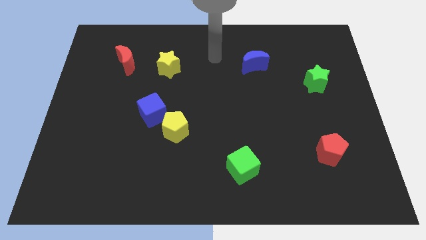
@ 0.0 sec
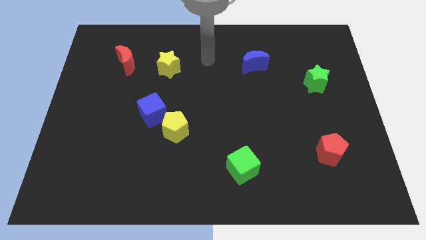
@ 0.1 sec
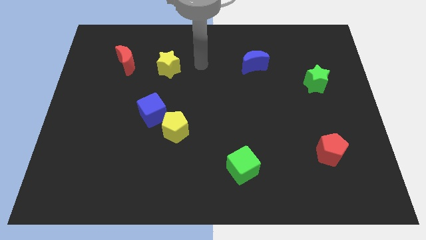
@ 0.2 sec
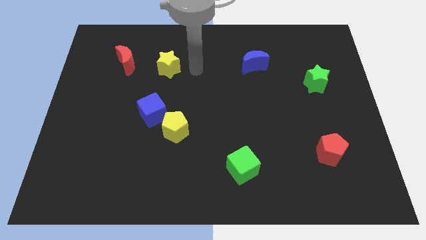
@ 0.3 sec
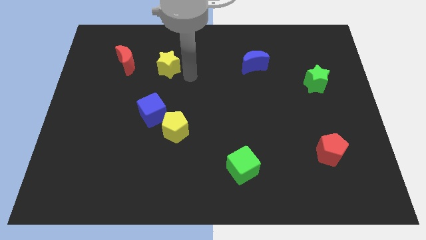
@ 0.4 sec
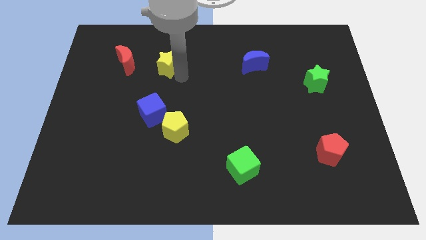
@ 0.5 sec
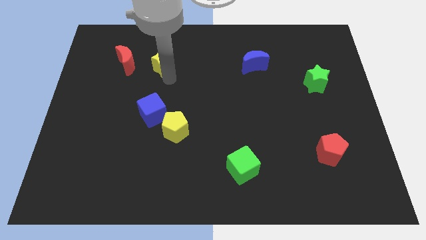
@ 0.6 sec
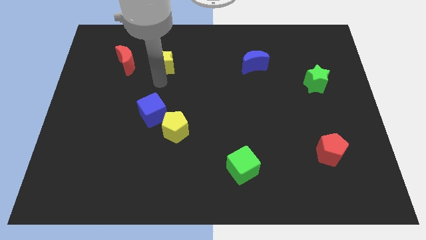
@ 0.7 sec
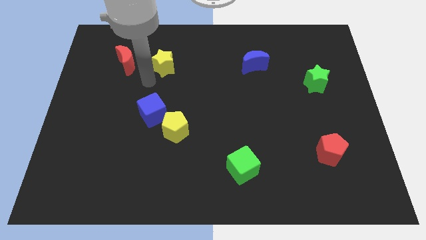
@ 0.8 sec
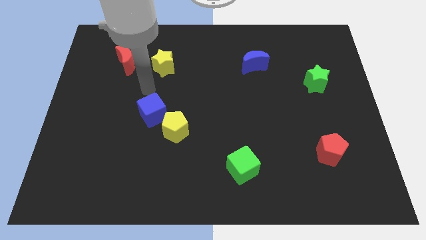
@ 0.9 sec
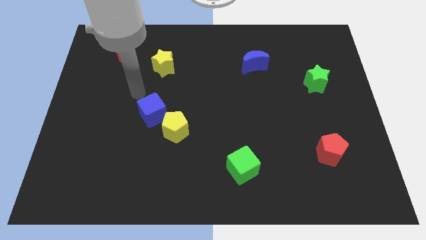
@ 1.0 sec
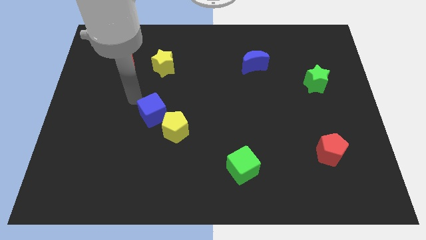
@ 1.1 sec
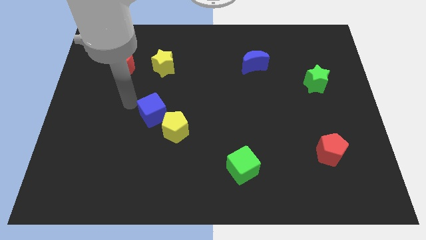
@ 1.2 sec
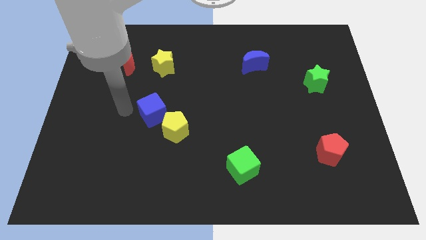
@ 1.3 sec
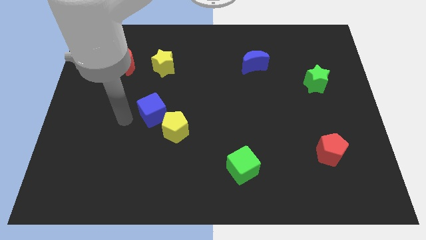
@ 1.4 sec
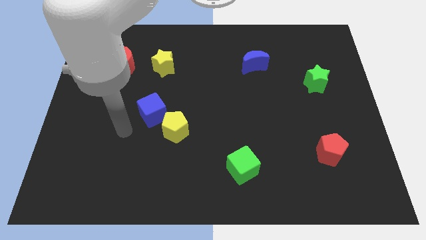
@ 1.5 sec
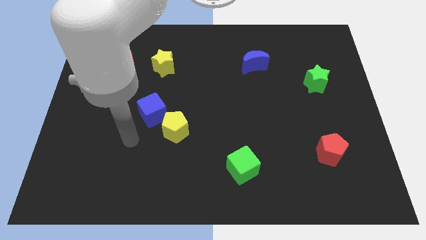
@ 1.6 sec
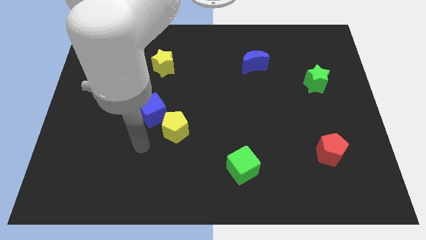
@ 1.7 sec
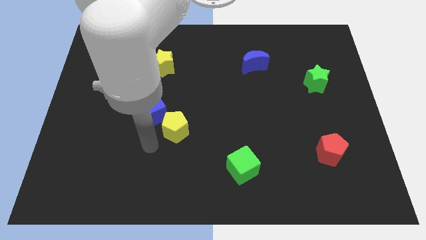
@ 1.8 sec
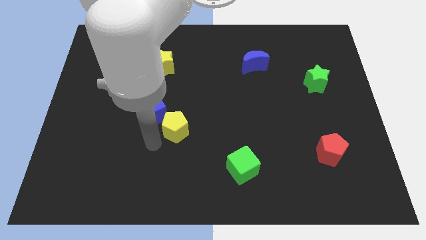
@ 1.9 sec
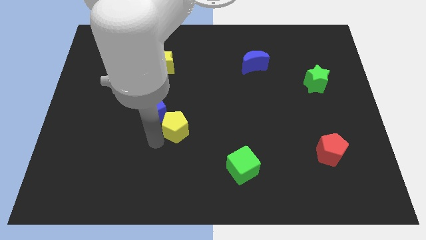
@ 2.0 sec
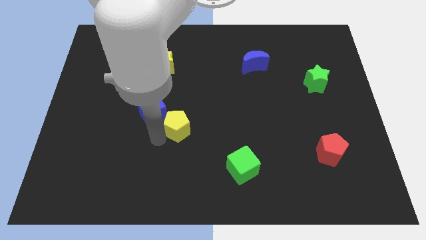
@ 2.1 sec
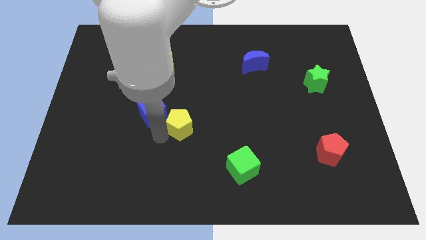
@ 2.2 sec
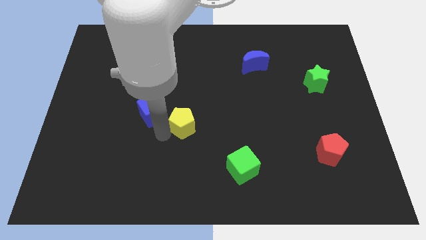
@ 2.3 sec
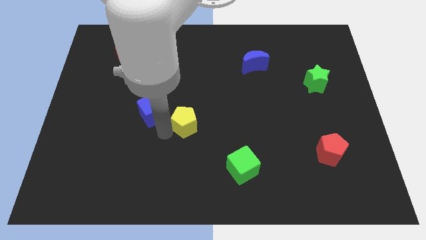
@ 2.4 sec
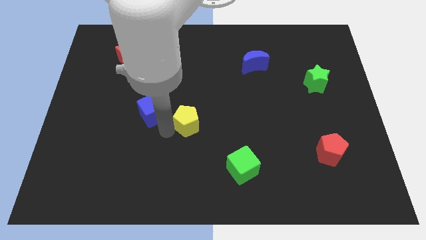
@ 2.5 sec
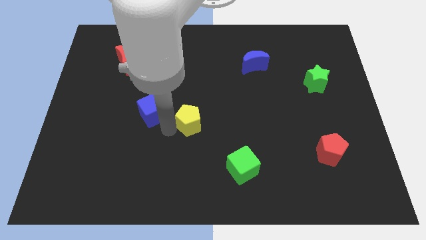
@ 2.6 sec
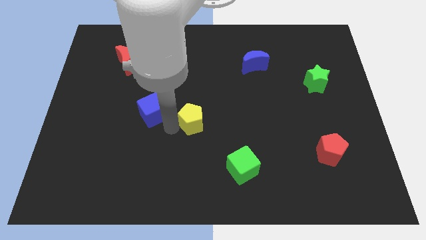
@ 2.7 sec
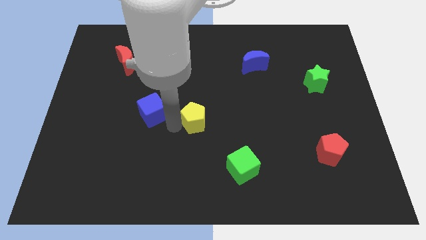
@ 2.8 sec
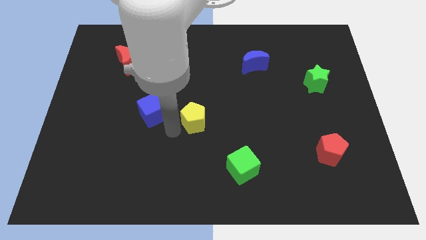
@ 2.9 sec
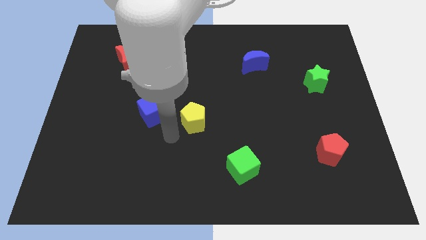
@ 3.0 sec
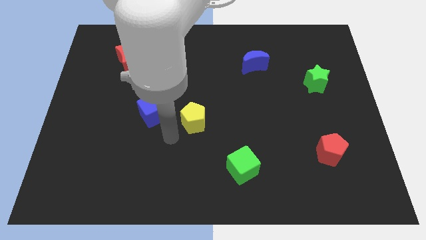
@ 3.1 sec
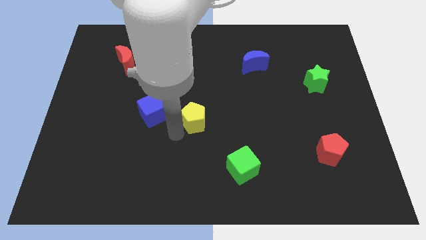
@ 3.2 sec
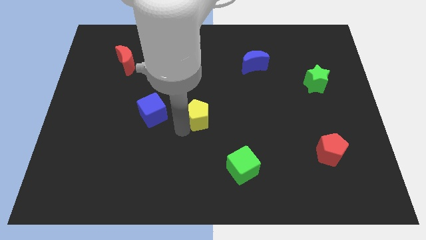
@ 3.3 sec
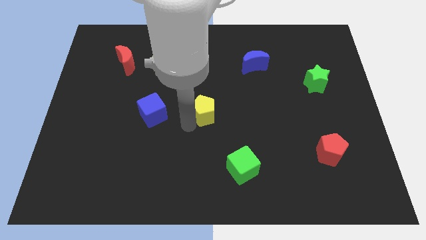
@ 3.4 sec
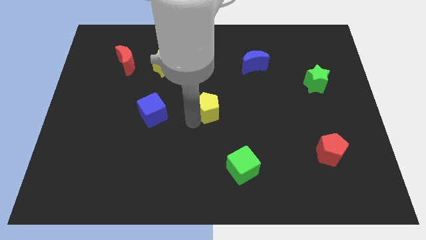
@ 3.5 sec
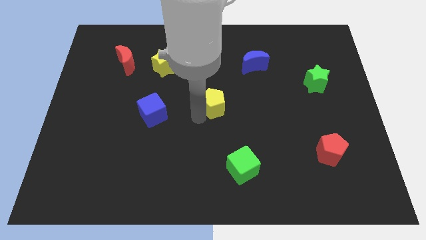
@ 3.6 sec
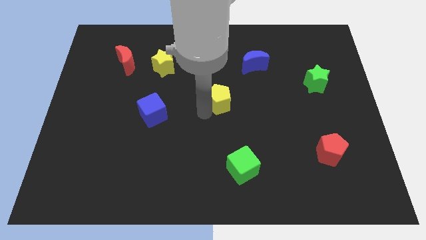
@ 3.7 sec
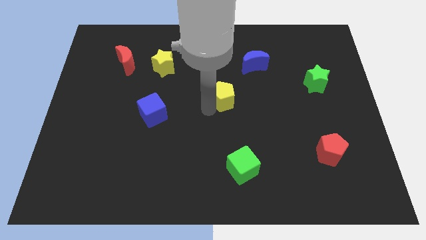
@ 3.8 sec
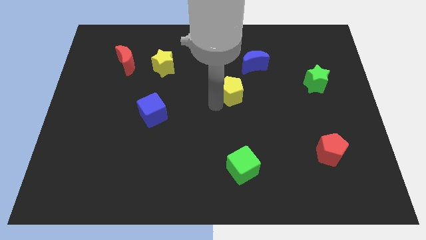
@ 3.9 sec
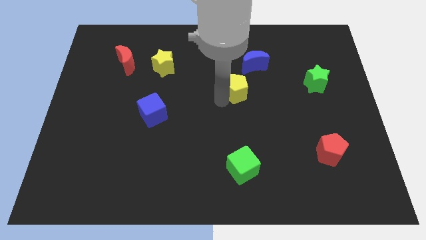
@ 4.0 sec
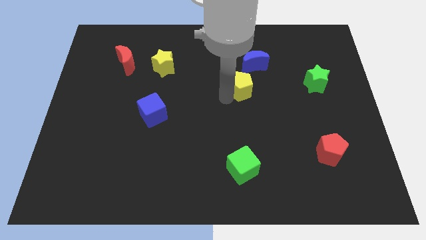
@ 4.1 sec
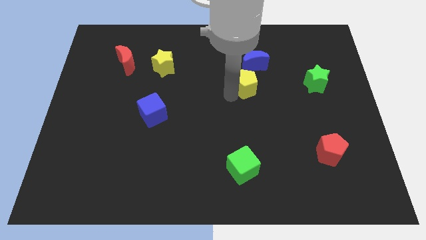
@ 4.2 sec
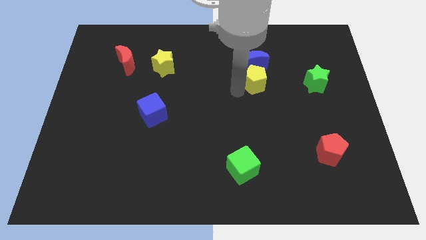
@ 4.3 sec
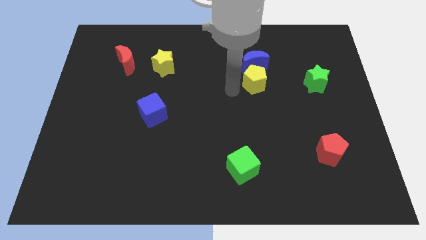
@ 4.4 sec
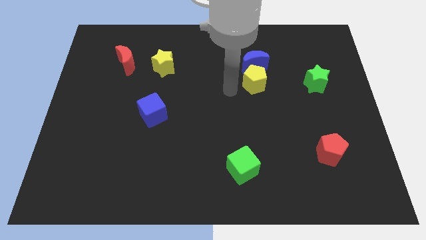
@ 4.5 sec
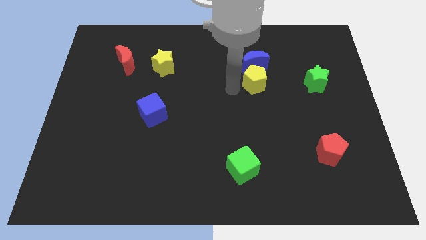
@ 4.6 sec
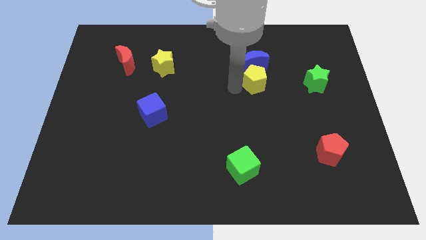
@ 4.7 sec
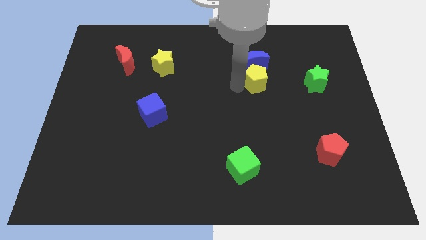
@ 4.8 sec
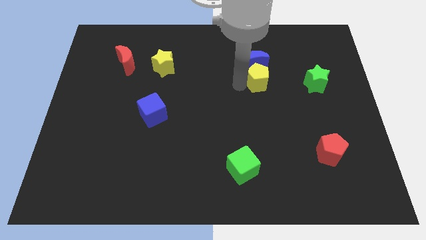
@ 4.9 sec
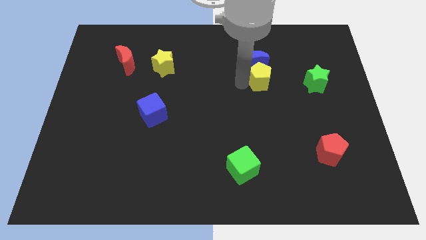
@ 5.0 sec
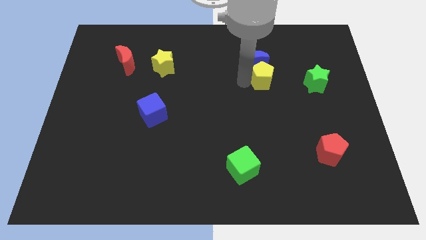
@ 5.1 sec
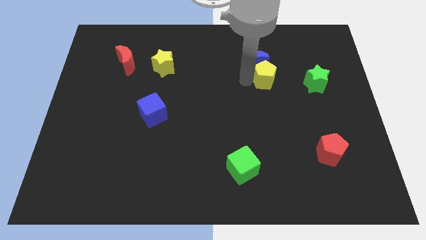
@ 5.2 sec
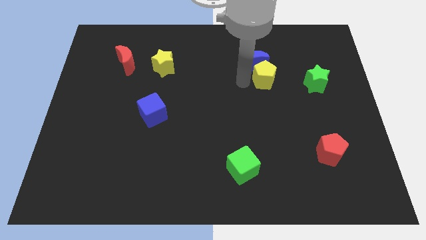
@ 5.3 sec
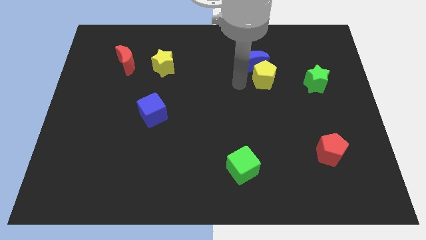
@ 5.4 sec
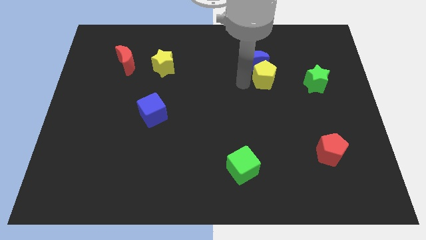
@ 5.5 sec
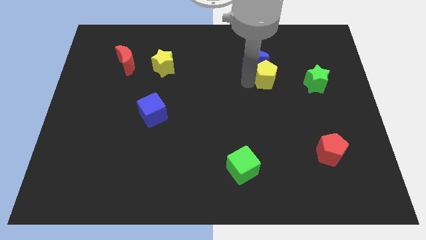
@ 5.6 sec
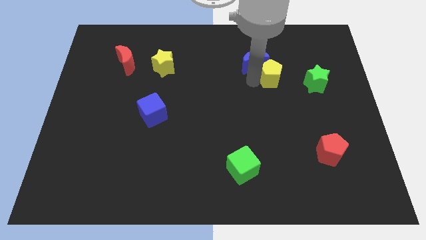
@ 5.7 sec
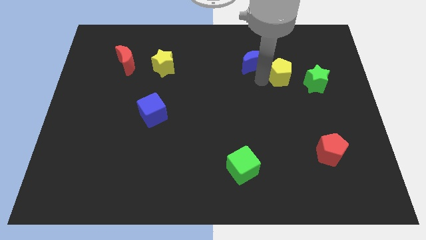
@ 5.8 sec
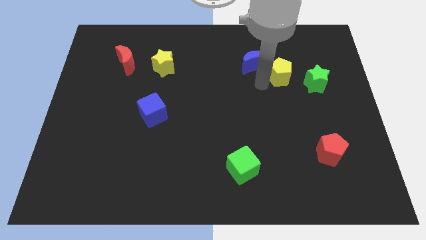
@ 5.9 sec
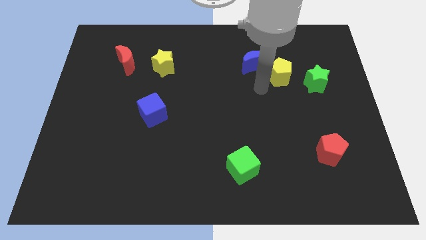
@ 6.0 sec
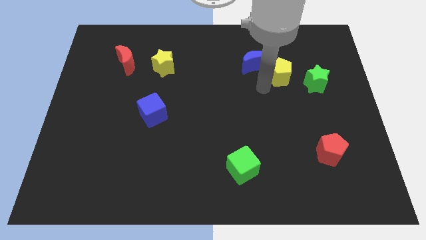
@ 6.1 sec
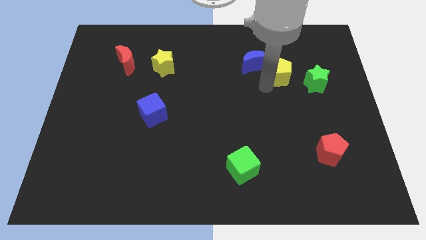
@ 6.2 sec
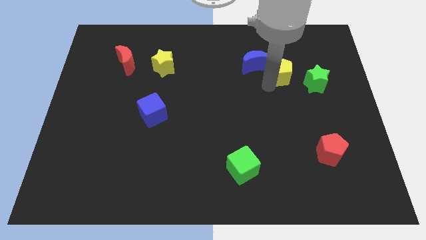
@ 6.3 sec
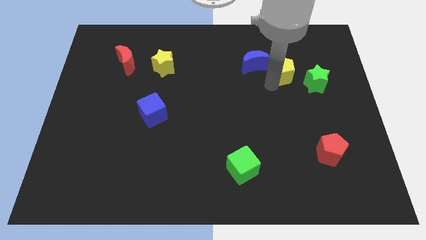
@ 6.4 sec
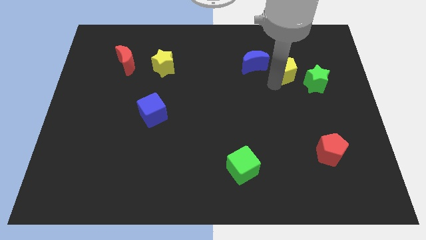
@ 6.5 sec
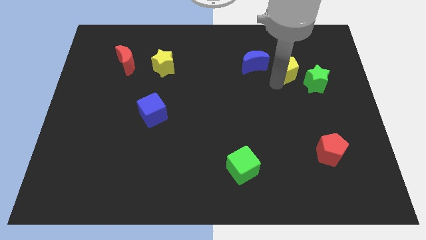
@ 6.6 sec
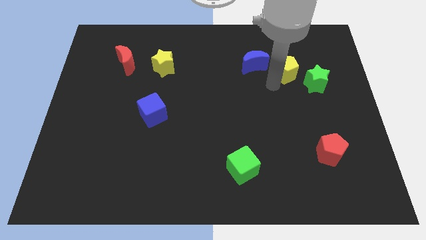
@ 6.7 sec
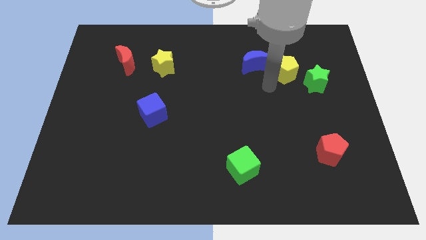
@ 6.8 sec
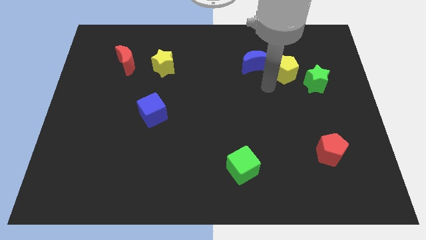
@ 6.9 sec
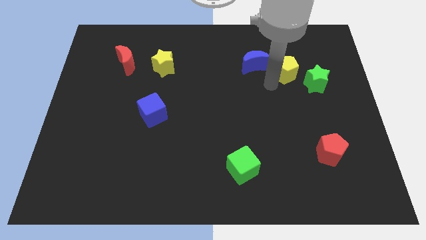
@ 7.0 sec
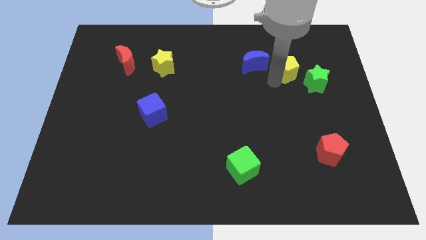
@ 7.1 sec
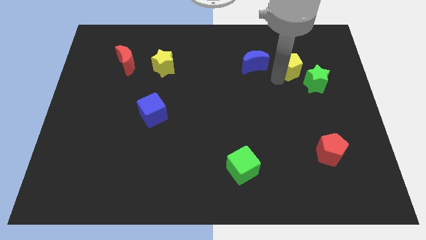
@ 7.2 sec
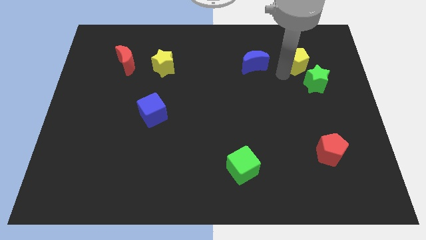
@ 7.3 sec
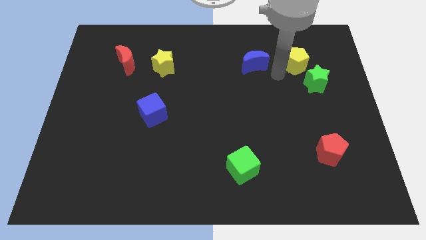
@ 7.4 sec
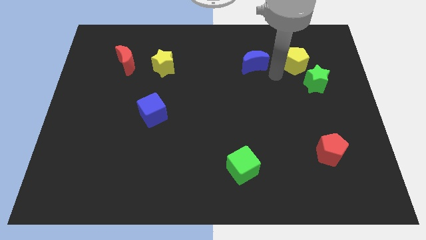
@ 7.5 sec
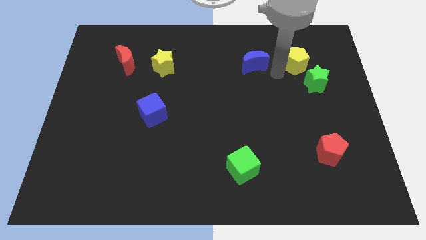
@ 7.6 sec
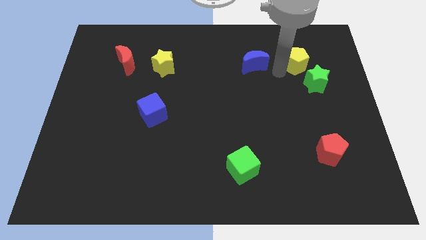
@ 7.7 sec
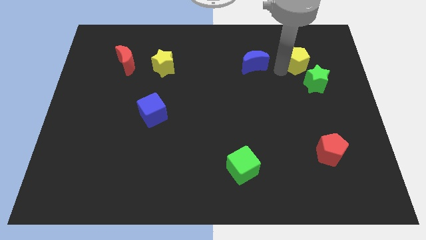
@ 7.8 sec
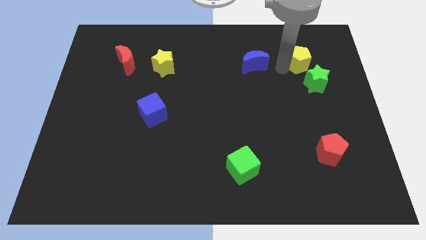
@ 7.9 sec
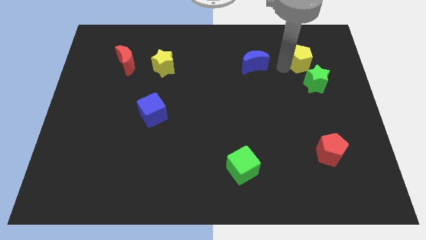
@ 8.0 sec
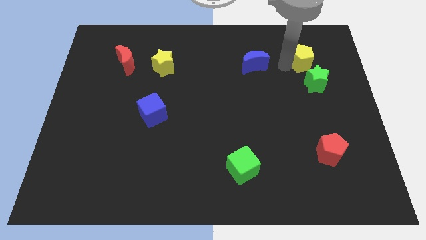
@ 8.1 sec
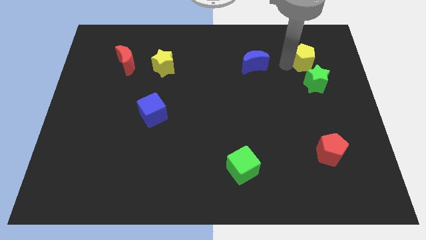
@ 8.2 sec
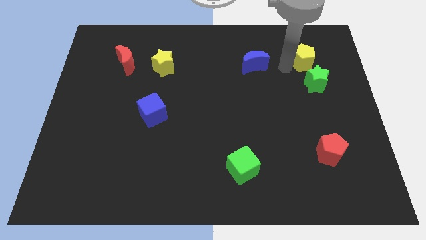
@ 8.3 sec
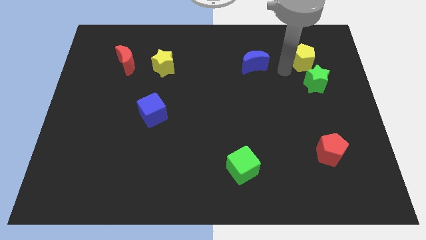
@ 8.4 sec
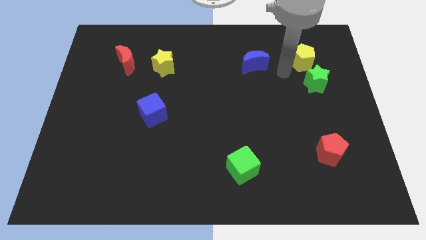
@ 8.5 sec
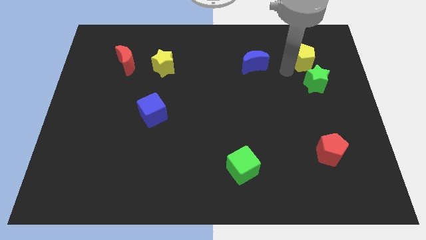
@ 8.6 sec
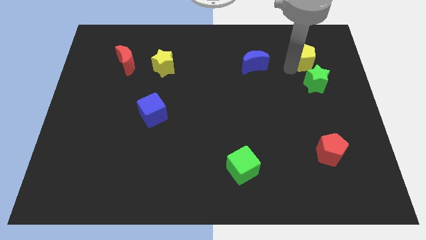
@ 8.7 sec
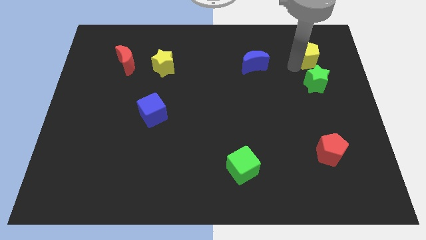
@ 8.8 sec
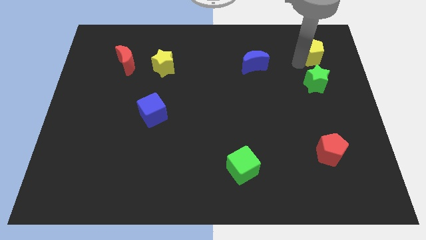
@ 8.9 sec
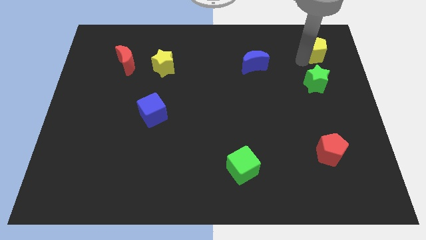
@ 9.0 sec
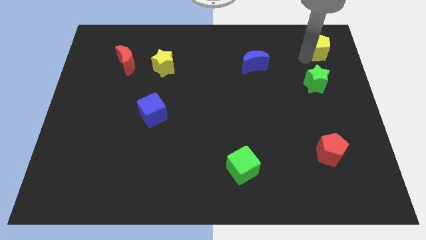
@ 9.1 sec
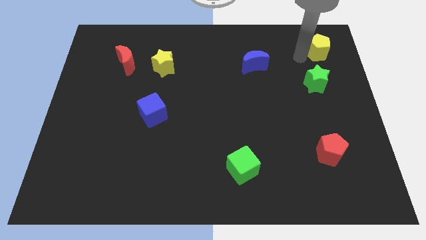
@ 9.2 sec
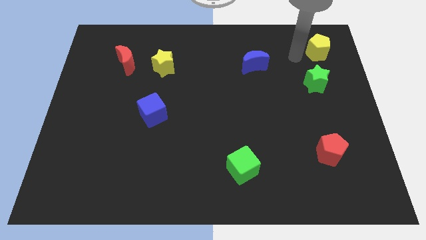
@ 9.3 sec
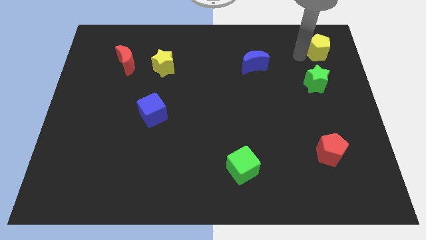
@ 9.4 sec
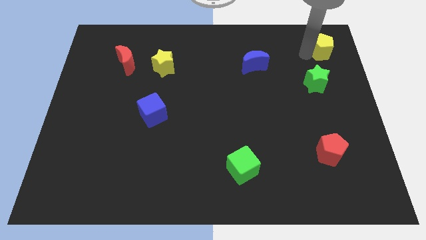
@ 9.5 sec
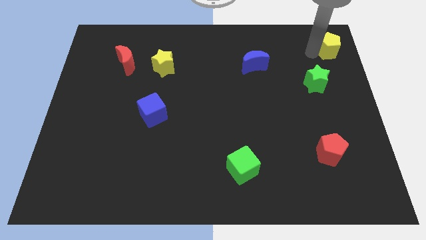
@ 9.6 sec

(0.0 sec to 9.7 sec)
push the yellow pentagon to the top right corner
